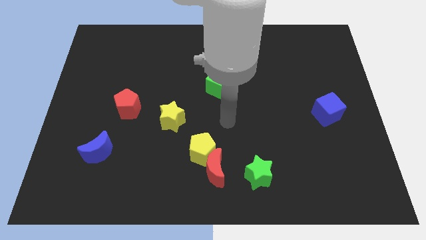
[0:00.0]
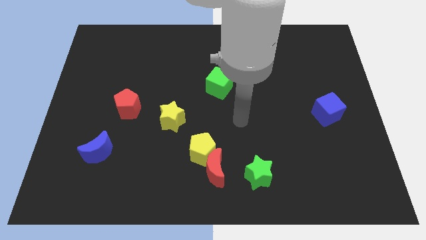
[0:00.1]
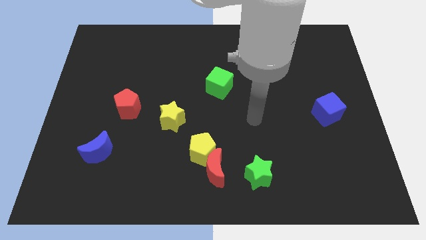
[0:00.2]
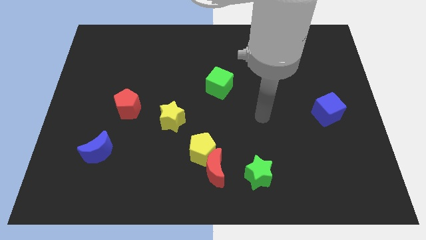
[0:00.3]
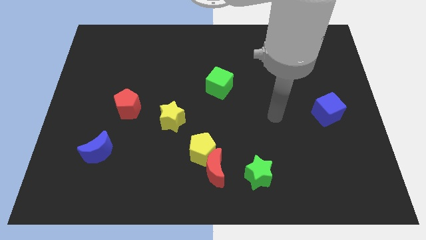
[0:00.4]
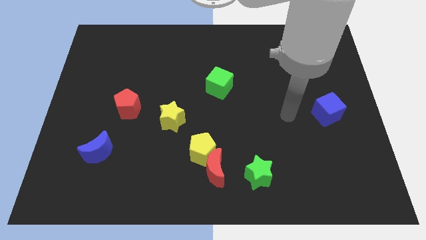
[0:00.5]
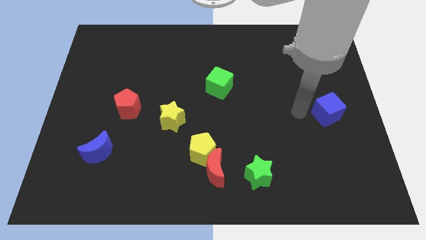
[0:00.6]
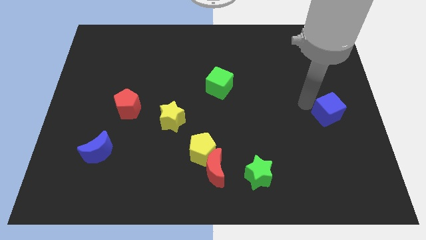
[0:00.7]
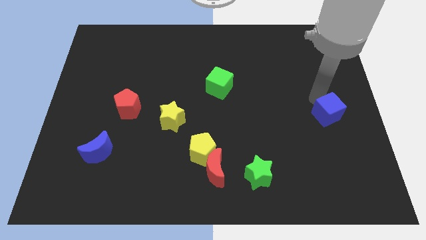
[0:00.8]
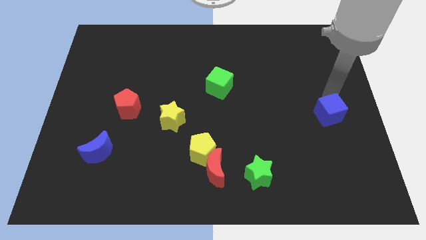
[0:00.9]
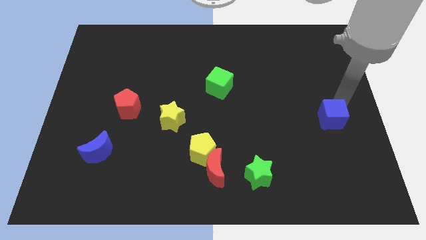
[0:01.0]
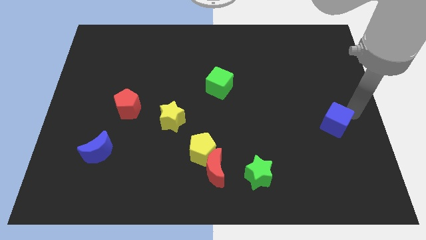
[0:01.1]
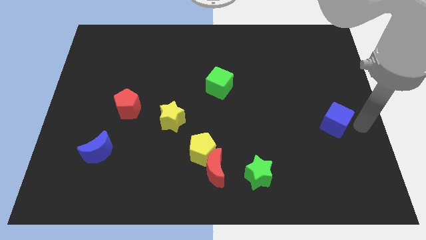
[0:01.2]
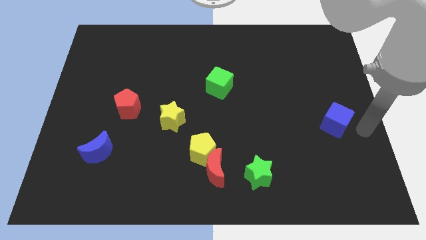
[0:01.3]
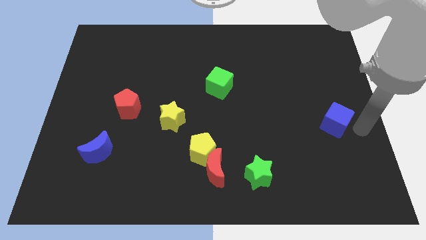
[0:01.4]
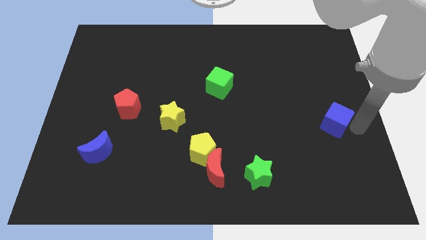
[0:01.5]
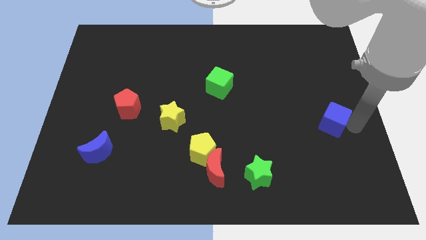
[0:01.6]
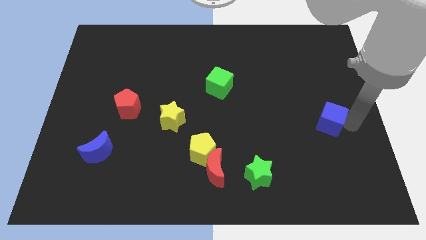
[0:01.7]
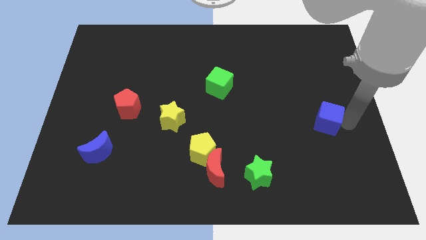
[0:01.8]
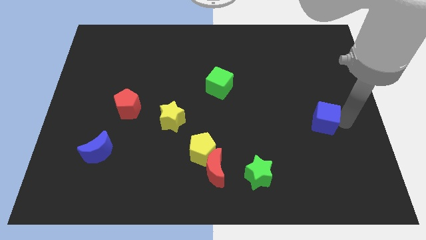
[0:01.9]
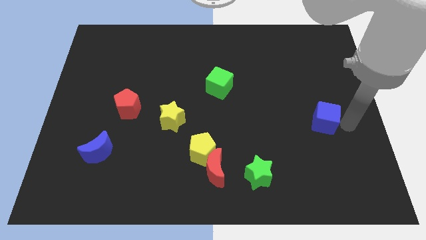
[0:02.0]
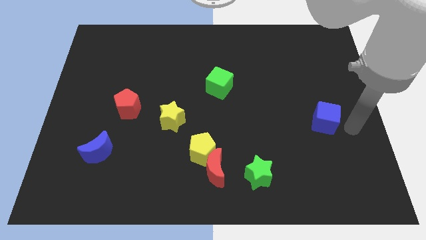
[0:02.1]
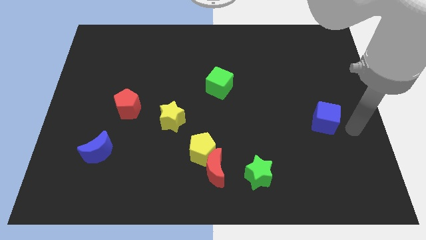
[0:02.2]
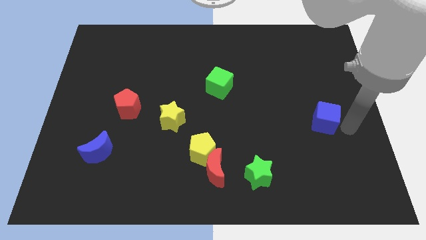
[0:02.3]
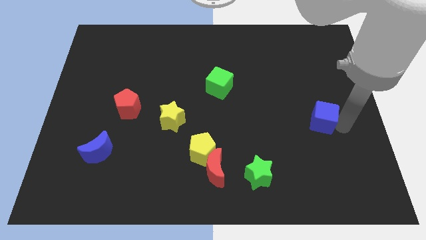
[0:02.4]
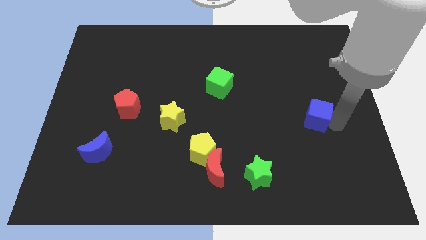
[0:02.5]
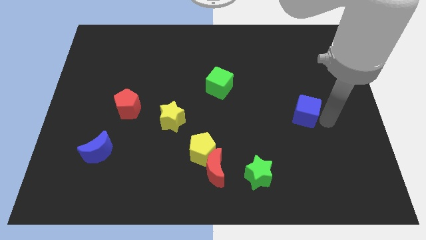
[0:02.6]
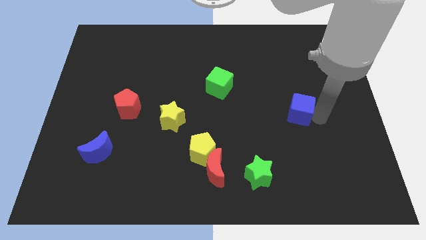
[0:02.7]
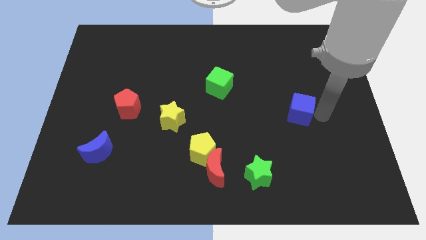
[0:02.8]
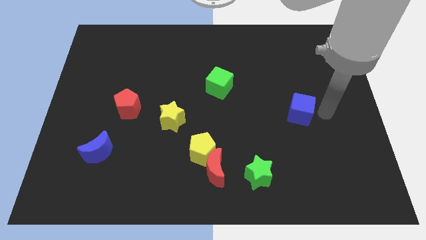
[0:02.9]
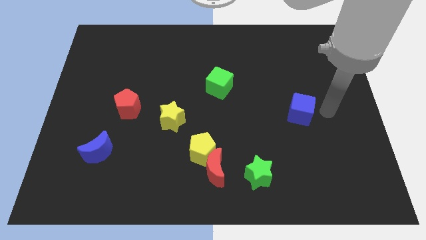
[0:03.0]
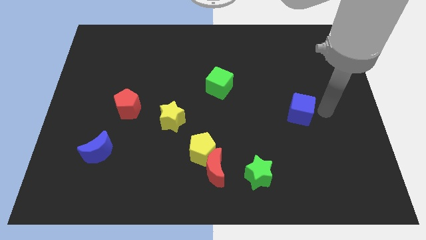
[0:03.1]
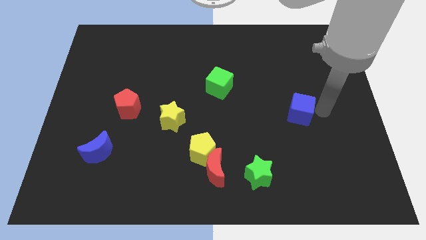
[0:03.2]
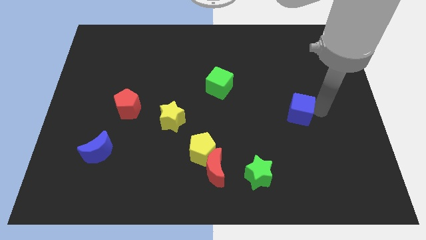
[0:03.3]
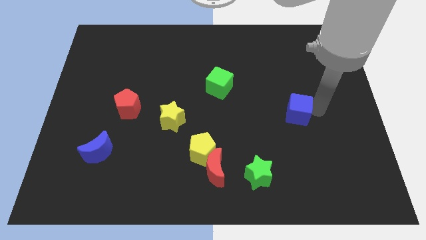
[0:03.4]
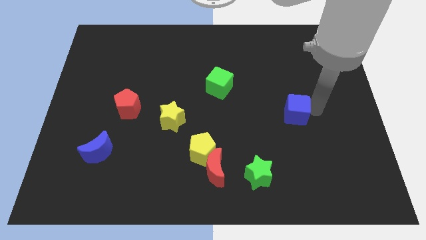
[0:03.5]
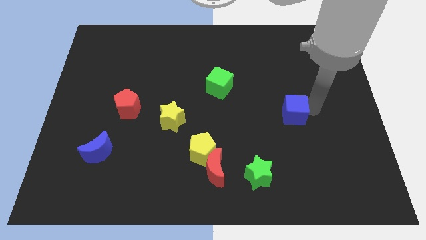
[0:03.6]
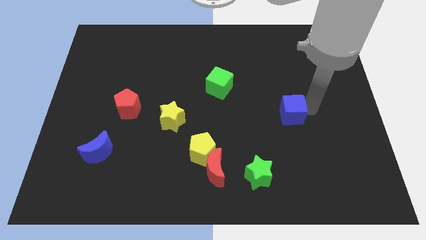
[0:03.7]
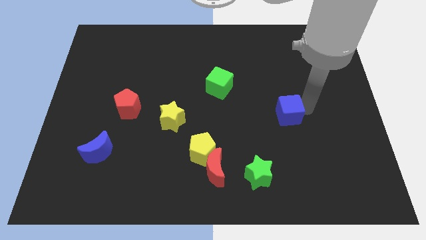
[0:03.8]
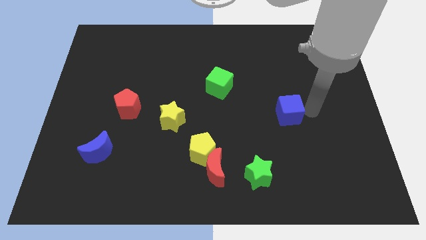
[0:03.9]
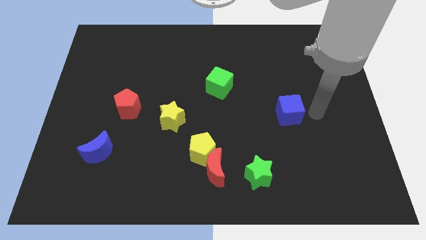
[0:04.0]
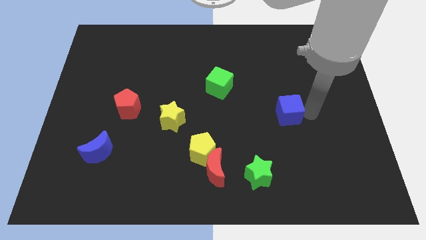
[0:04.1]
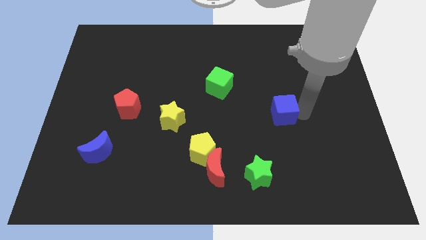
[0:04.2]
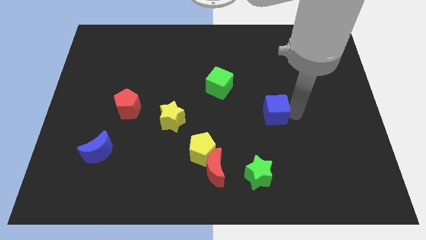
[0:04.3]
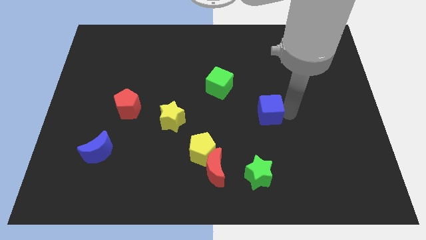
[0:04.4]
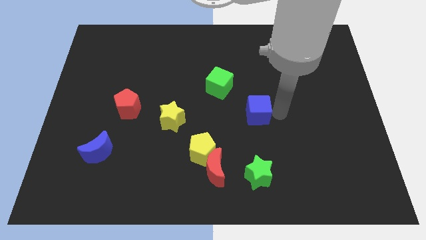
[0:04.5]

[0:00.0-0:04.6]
push the blue cube to the middle of the board

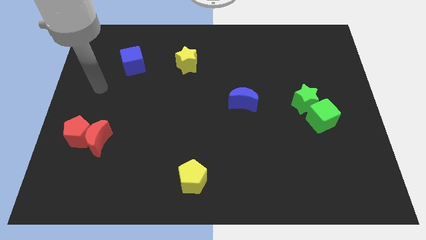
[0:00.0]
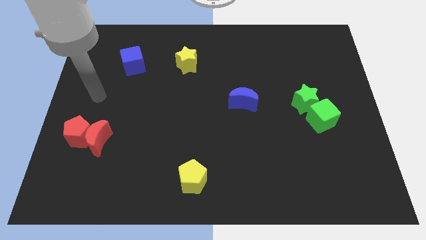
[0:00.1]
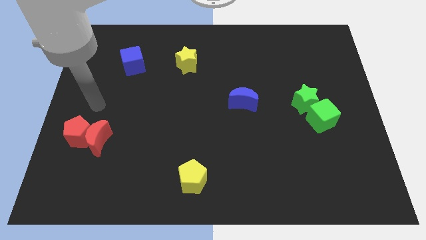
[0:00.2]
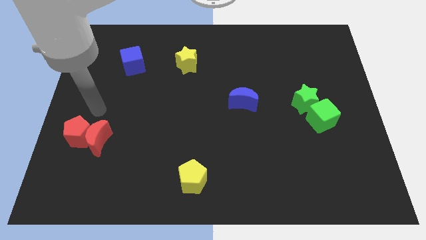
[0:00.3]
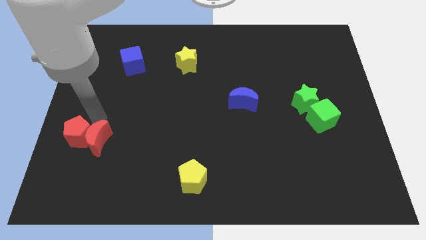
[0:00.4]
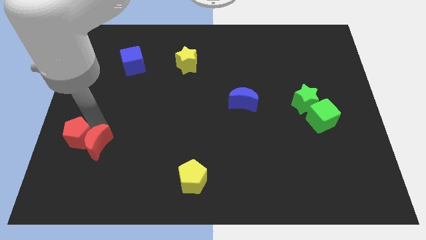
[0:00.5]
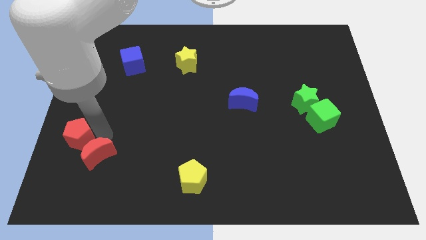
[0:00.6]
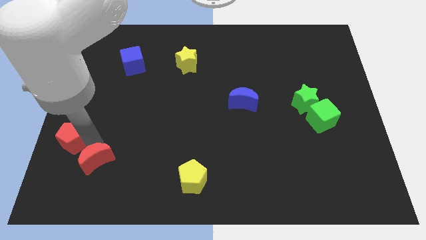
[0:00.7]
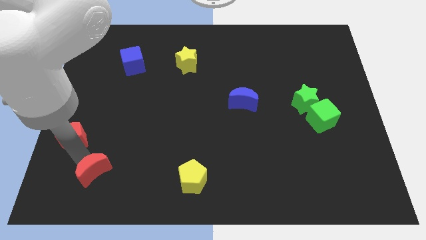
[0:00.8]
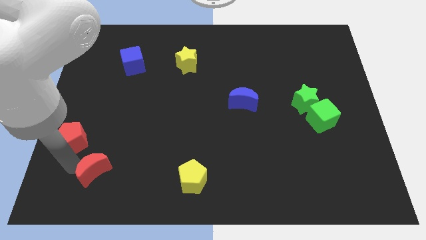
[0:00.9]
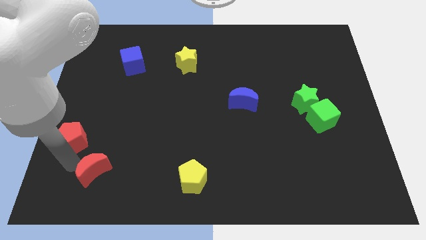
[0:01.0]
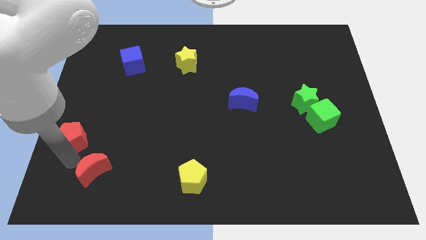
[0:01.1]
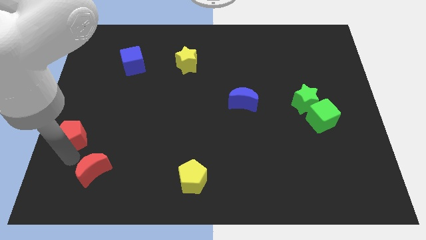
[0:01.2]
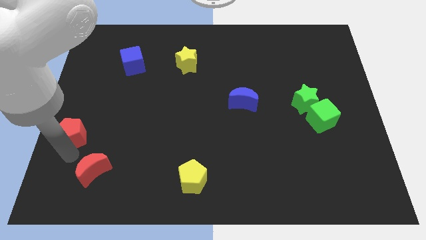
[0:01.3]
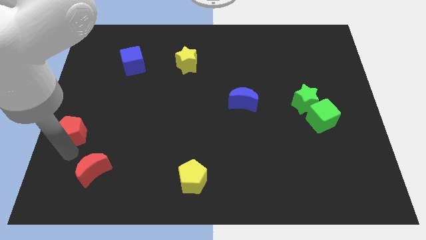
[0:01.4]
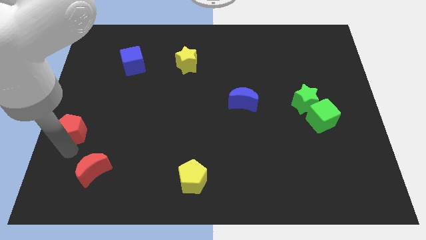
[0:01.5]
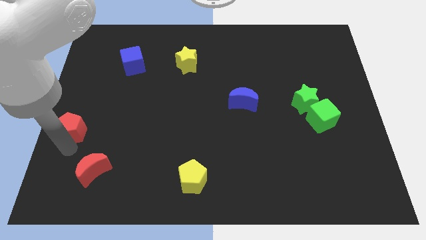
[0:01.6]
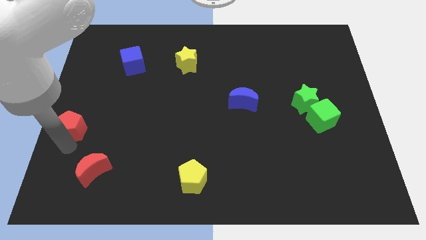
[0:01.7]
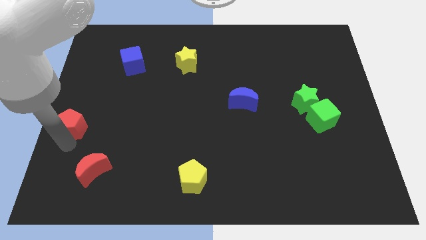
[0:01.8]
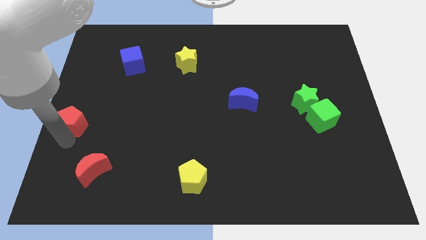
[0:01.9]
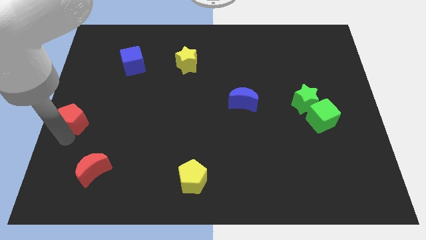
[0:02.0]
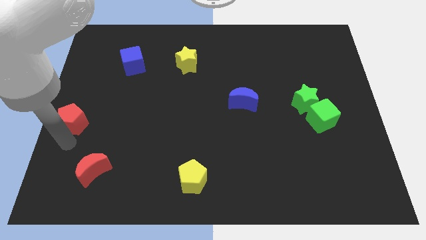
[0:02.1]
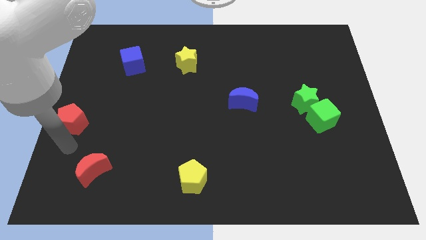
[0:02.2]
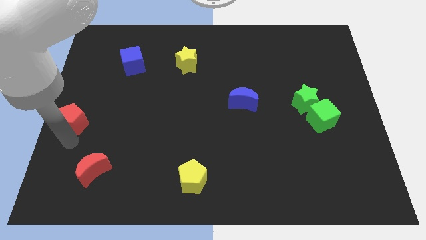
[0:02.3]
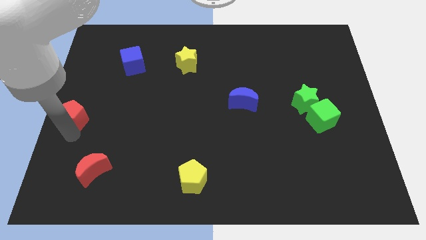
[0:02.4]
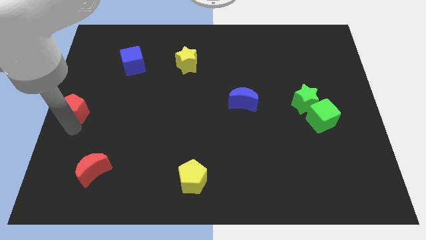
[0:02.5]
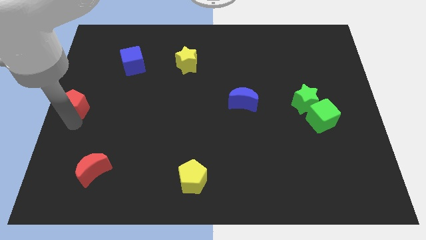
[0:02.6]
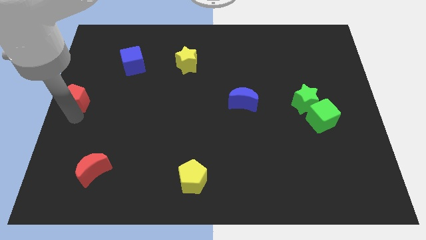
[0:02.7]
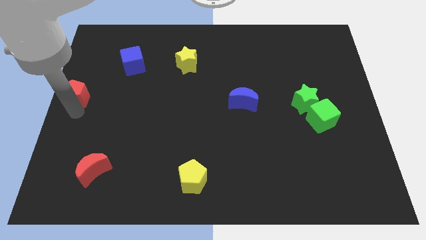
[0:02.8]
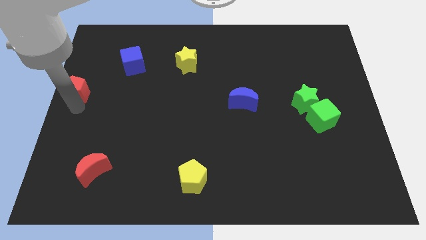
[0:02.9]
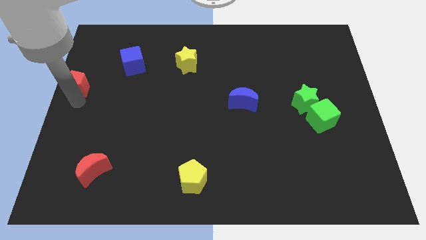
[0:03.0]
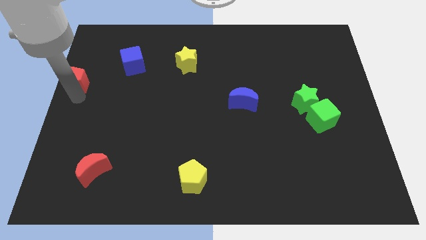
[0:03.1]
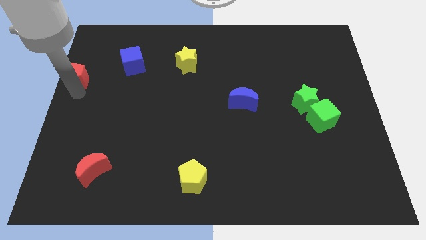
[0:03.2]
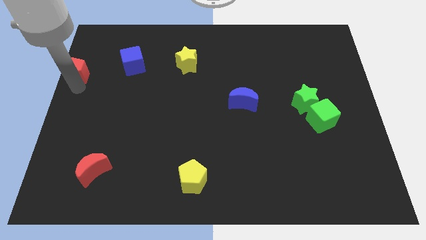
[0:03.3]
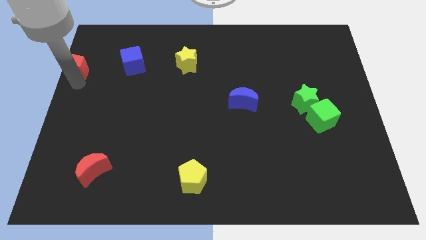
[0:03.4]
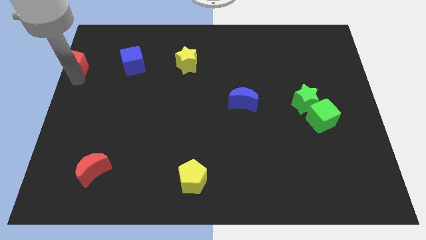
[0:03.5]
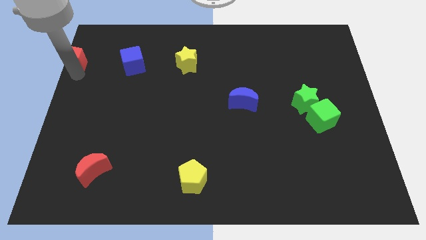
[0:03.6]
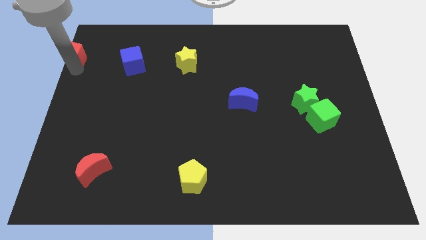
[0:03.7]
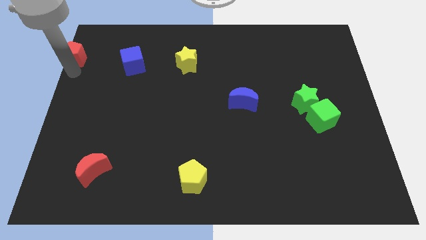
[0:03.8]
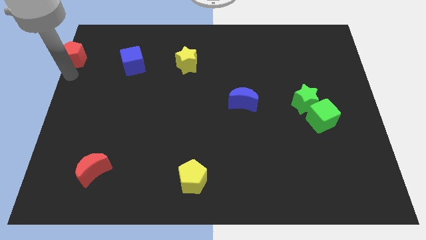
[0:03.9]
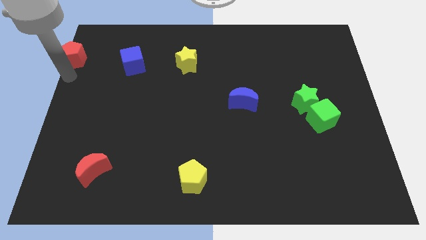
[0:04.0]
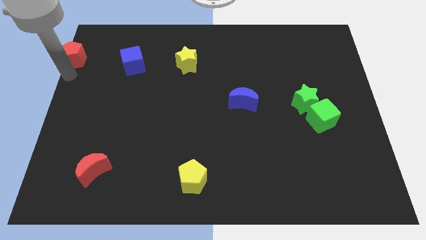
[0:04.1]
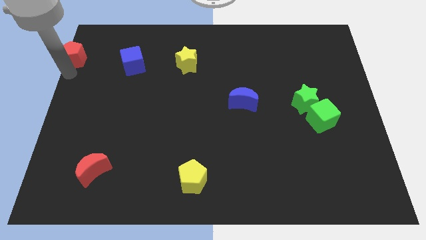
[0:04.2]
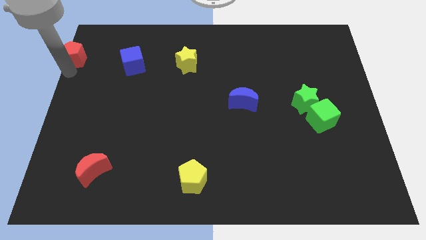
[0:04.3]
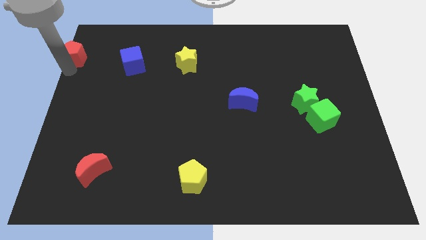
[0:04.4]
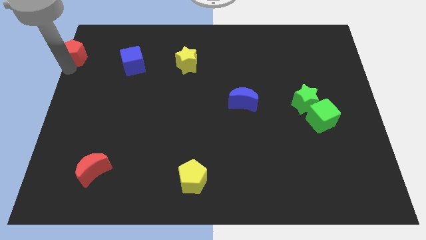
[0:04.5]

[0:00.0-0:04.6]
push the red pentagon to the top left
